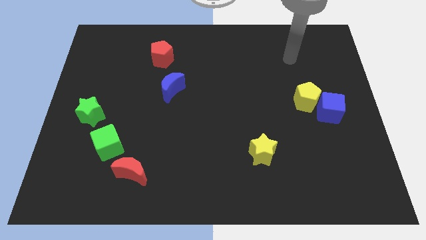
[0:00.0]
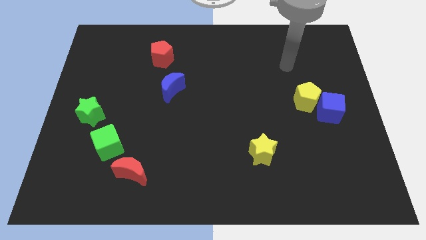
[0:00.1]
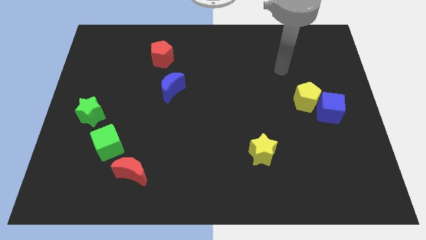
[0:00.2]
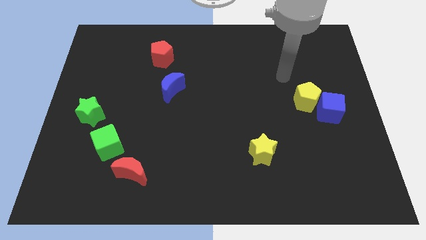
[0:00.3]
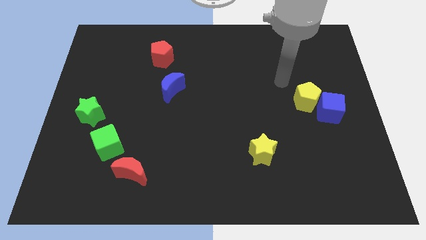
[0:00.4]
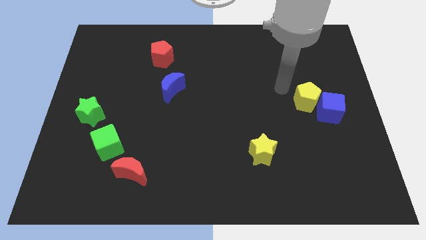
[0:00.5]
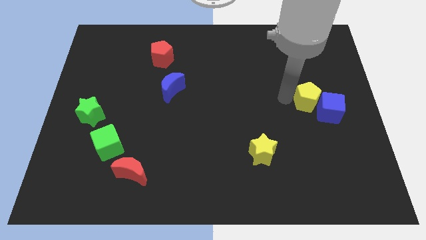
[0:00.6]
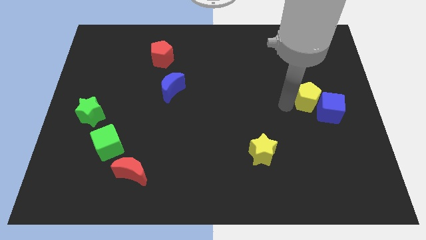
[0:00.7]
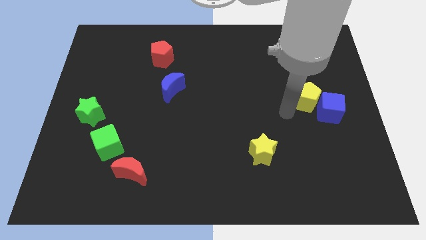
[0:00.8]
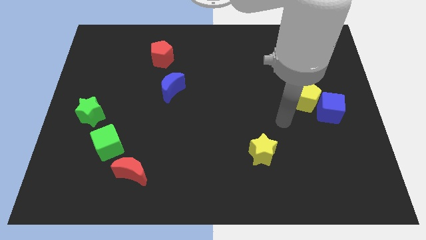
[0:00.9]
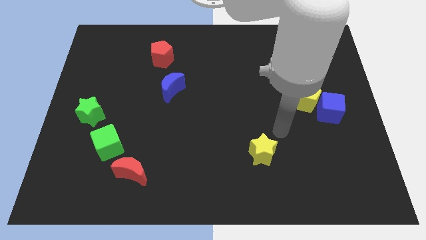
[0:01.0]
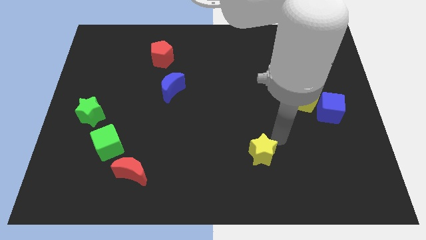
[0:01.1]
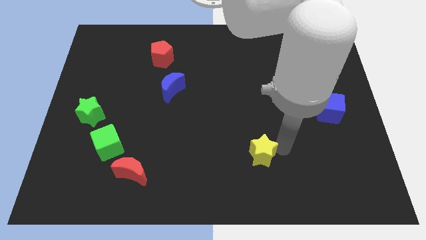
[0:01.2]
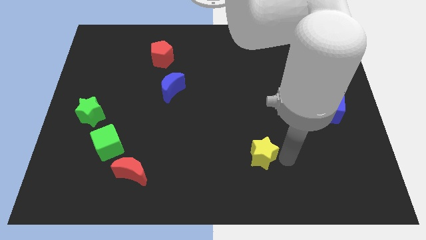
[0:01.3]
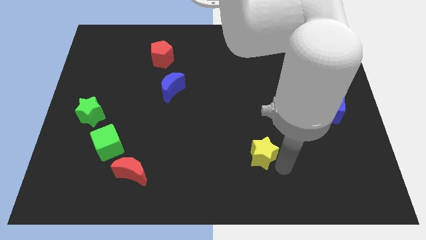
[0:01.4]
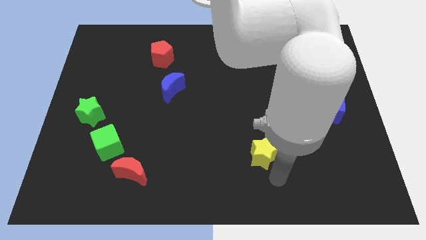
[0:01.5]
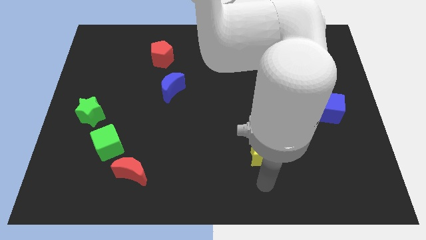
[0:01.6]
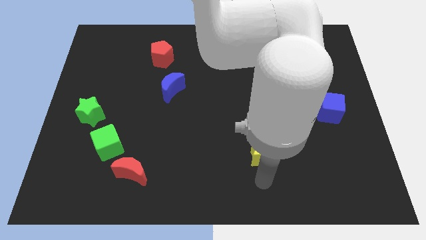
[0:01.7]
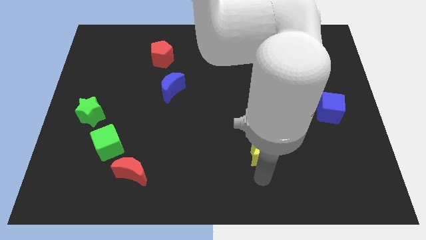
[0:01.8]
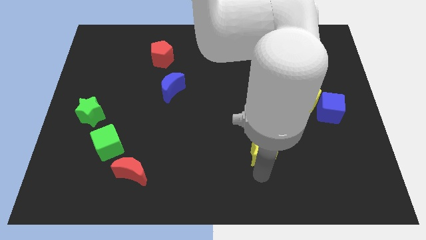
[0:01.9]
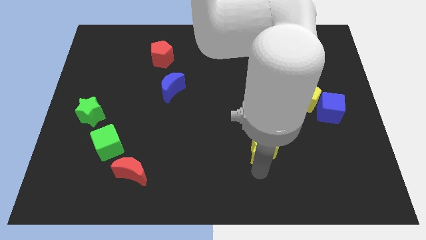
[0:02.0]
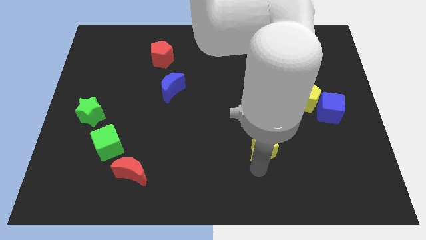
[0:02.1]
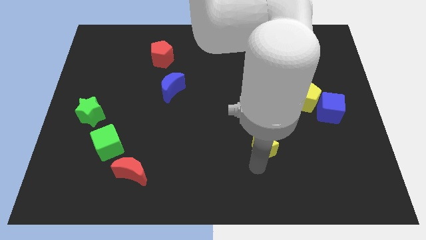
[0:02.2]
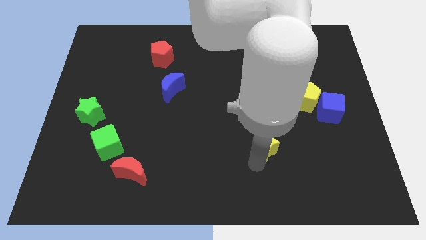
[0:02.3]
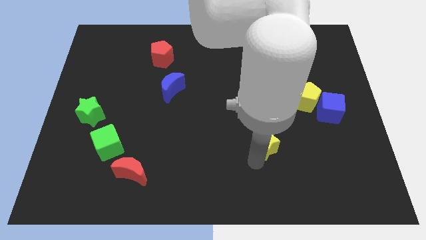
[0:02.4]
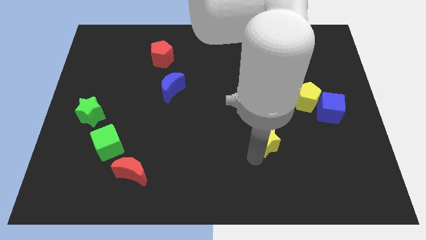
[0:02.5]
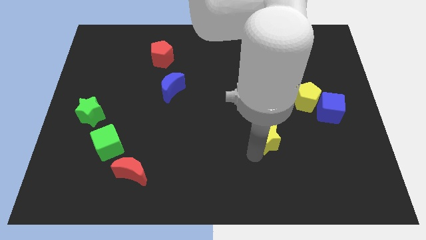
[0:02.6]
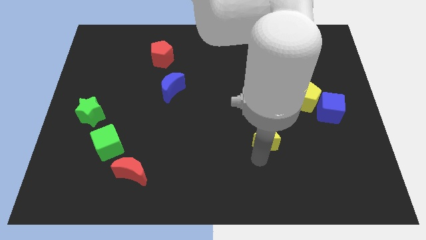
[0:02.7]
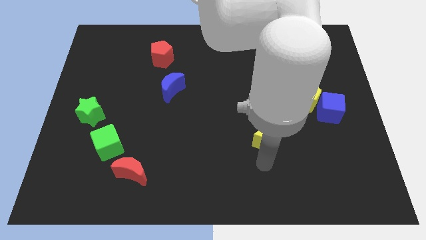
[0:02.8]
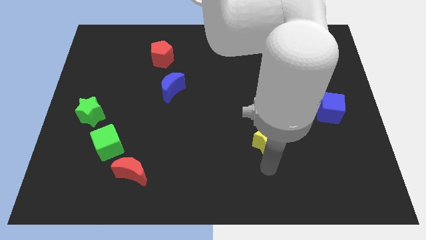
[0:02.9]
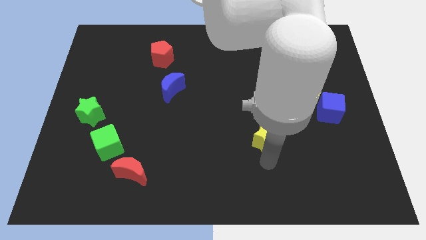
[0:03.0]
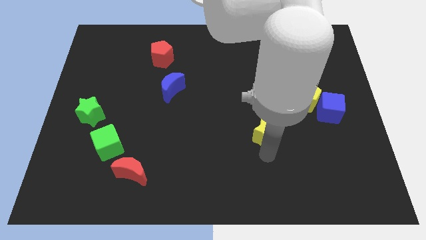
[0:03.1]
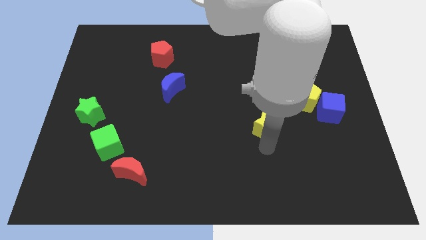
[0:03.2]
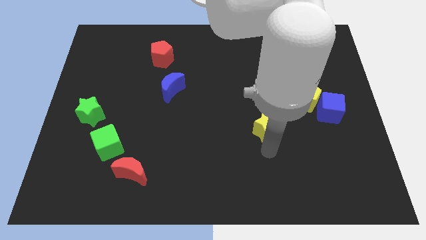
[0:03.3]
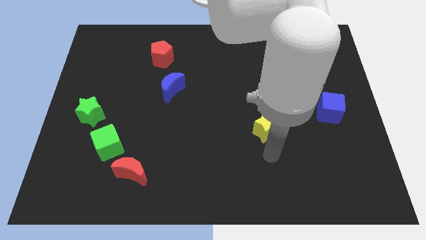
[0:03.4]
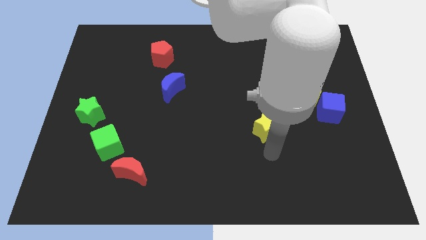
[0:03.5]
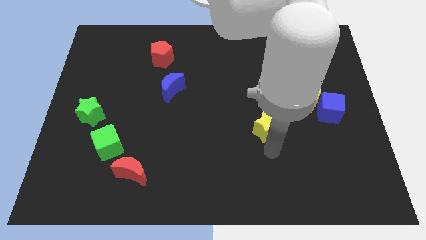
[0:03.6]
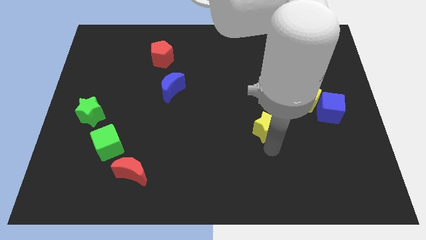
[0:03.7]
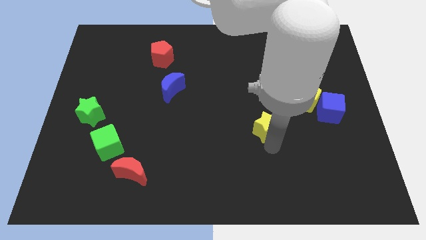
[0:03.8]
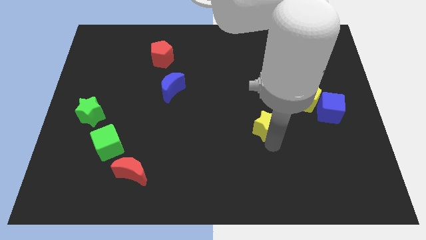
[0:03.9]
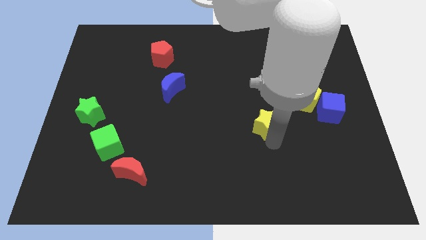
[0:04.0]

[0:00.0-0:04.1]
slide the yellow star a little up

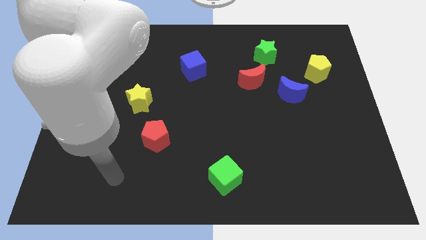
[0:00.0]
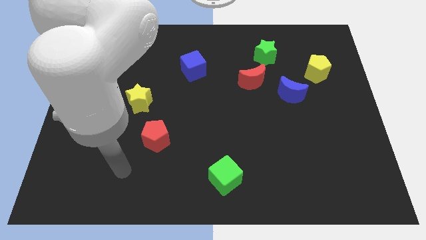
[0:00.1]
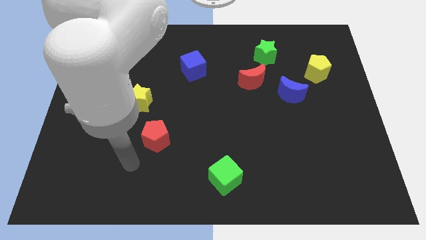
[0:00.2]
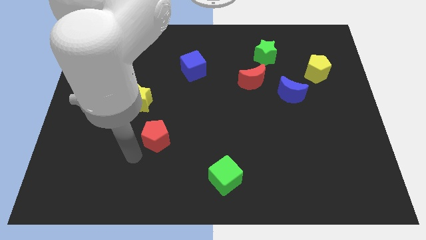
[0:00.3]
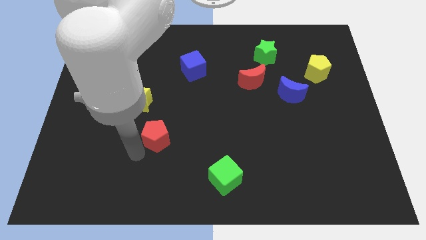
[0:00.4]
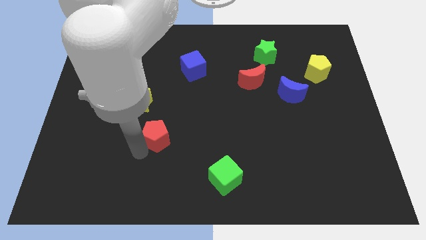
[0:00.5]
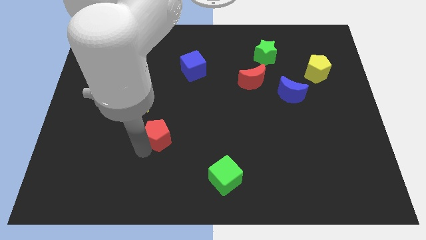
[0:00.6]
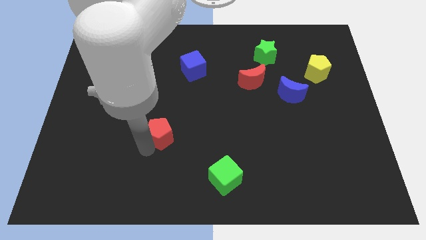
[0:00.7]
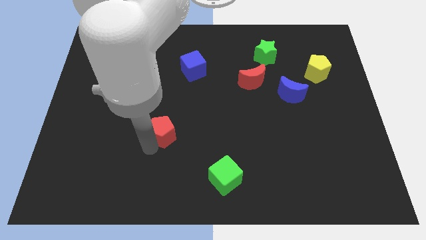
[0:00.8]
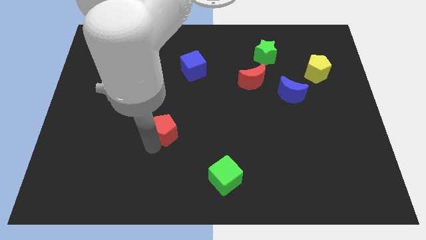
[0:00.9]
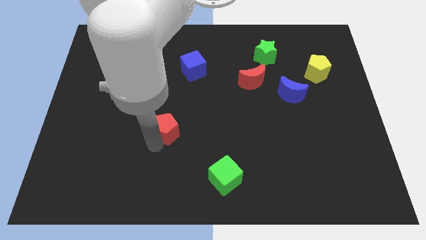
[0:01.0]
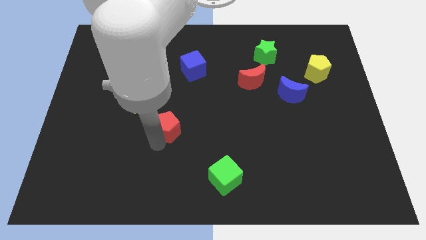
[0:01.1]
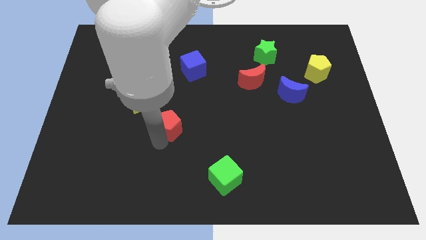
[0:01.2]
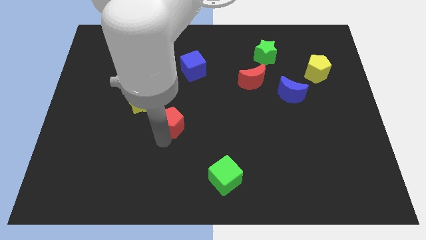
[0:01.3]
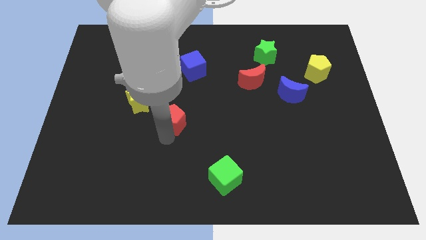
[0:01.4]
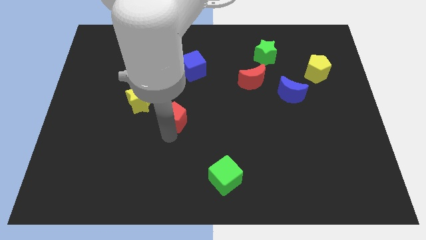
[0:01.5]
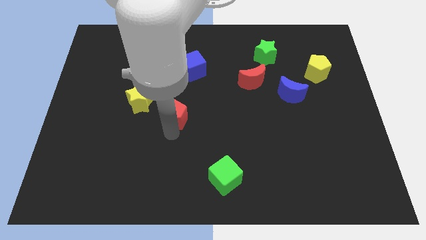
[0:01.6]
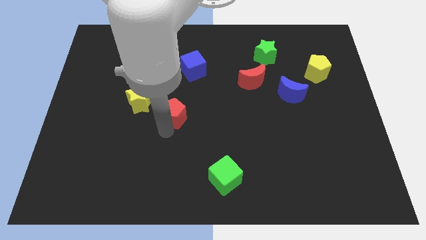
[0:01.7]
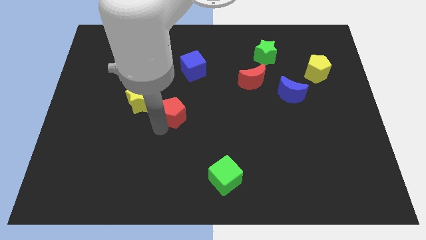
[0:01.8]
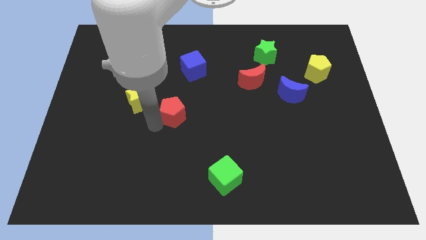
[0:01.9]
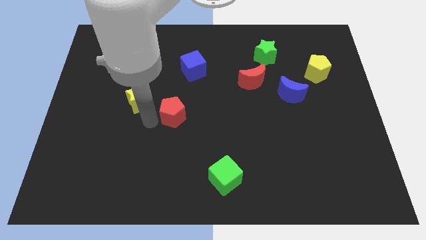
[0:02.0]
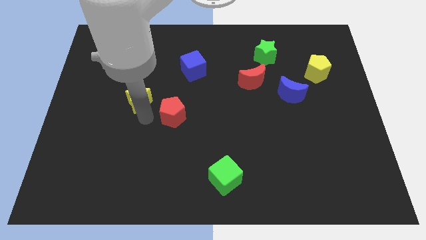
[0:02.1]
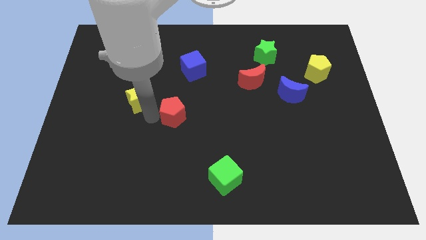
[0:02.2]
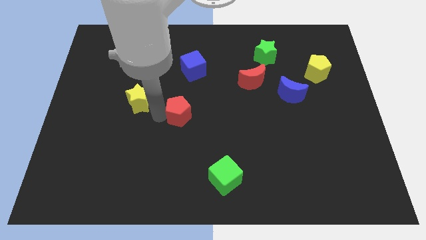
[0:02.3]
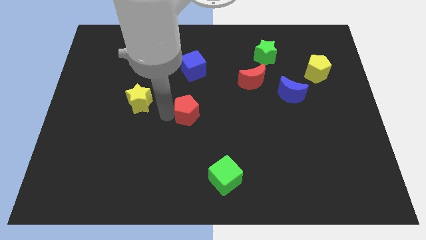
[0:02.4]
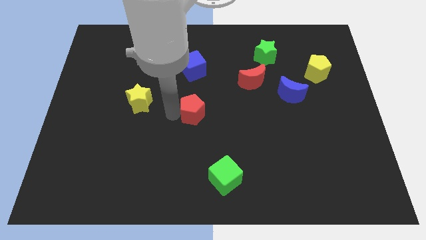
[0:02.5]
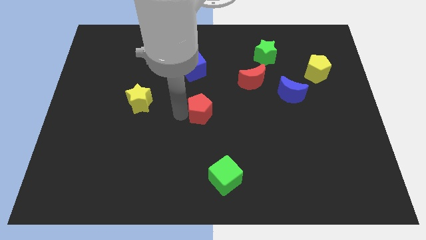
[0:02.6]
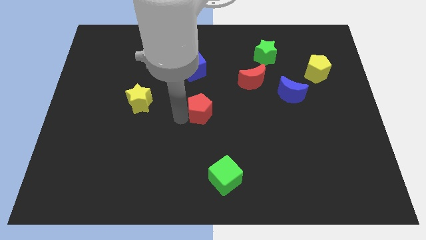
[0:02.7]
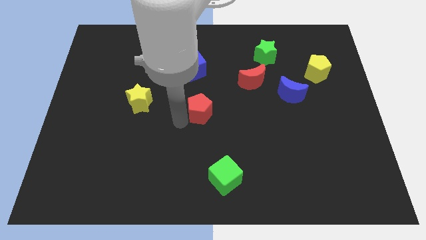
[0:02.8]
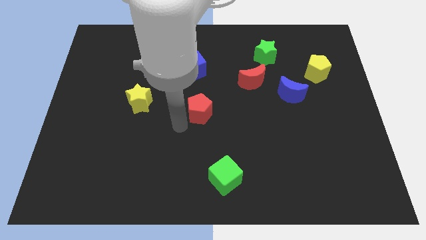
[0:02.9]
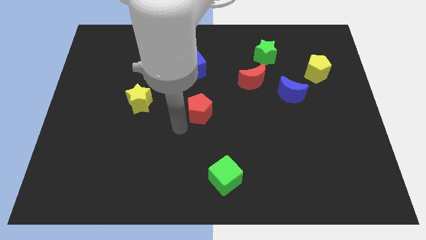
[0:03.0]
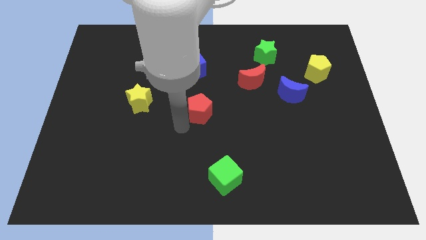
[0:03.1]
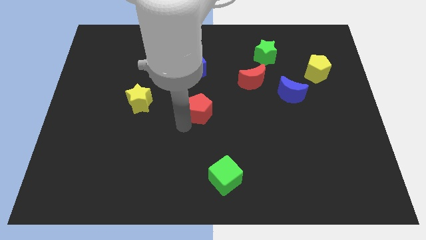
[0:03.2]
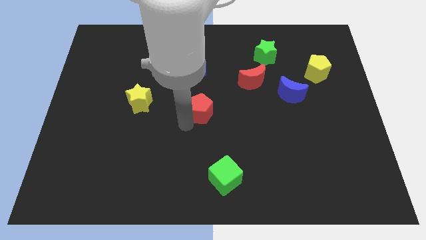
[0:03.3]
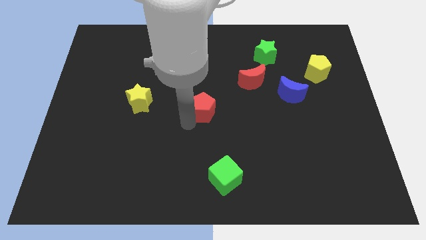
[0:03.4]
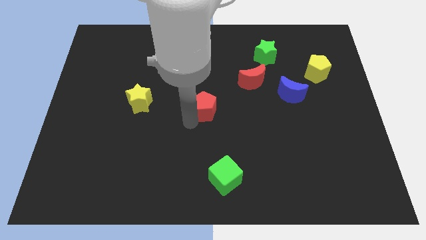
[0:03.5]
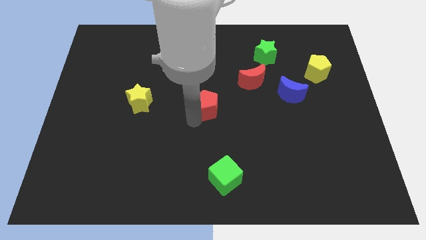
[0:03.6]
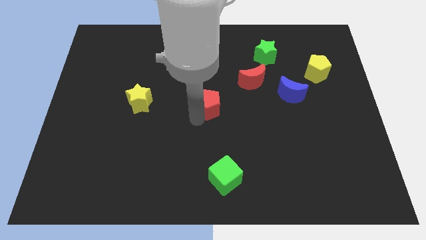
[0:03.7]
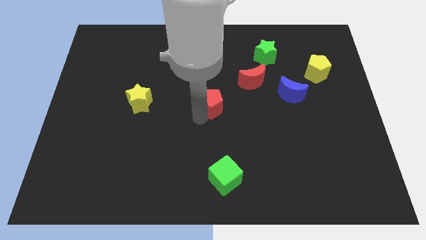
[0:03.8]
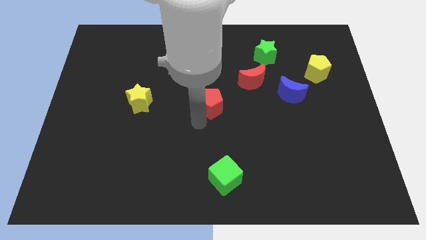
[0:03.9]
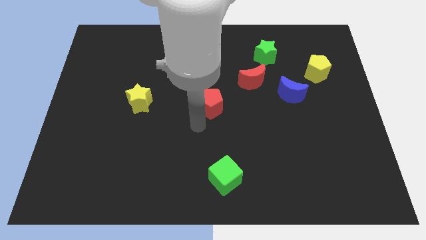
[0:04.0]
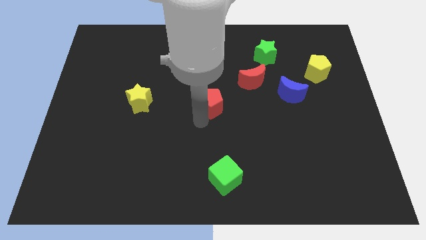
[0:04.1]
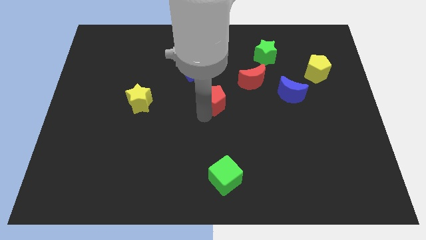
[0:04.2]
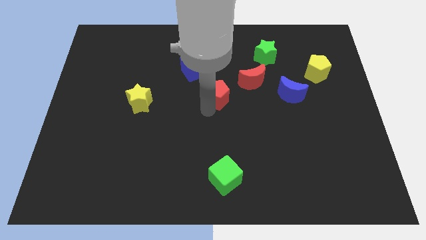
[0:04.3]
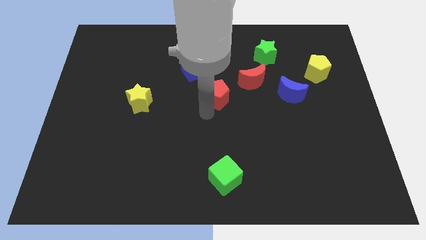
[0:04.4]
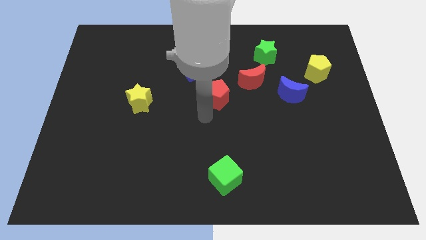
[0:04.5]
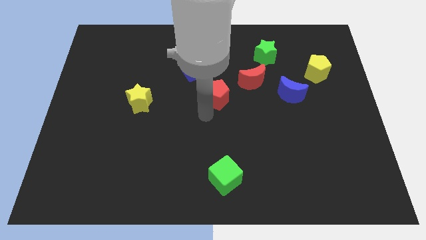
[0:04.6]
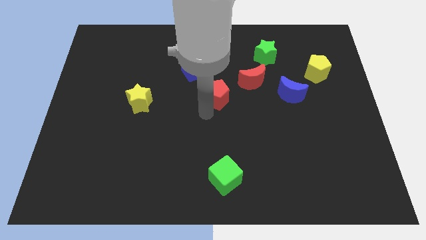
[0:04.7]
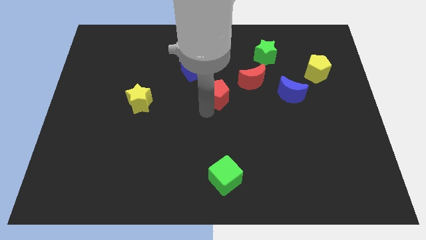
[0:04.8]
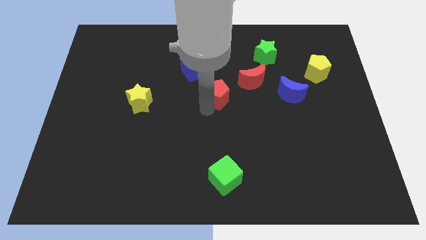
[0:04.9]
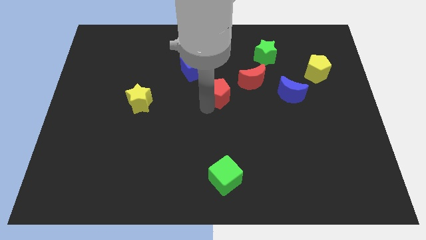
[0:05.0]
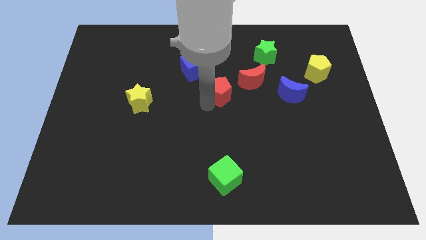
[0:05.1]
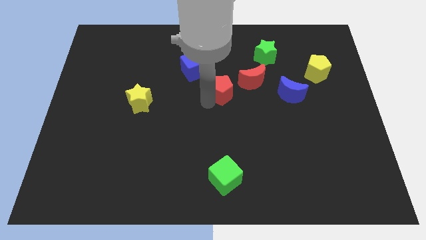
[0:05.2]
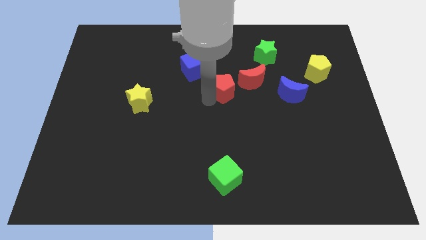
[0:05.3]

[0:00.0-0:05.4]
move the red pentagon up and then to the right
